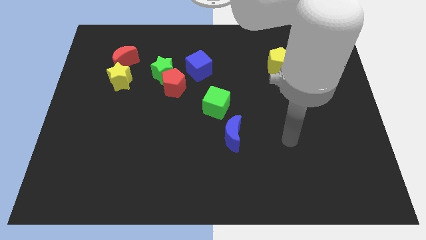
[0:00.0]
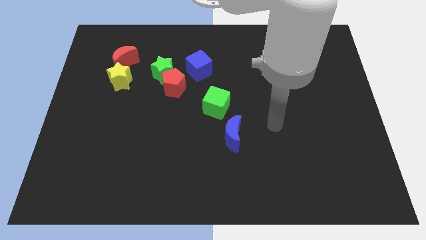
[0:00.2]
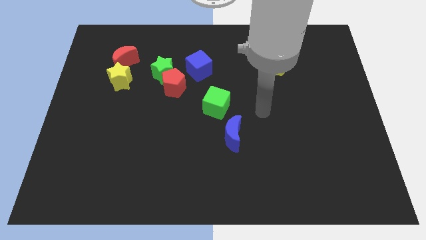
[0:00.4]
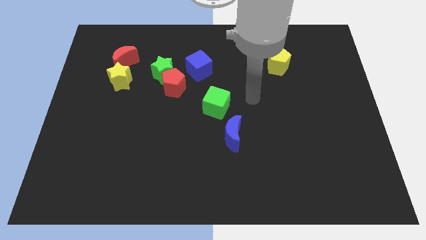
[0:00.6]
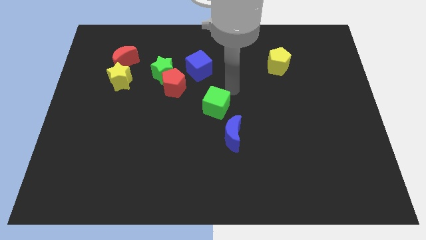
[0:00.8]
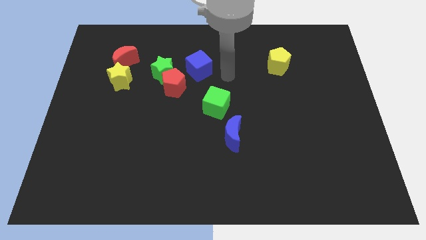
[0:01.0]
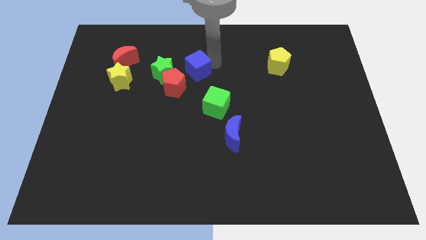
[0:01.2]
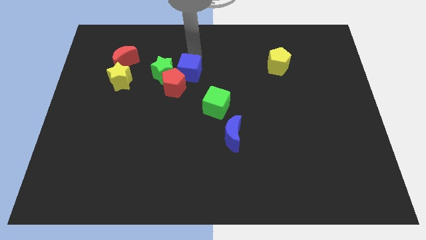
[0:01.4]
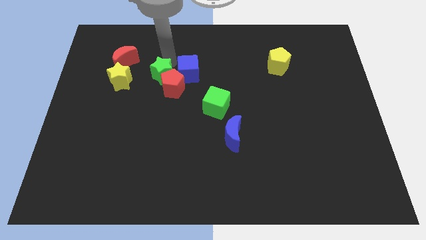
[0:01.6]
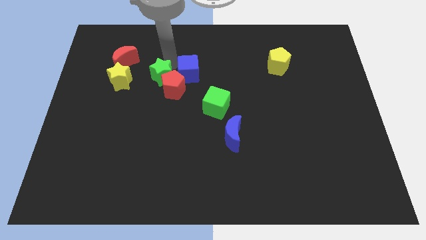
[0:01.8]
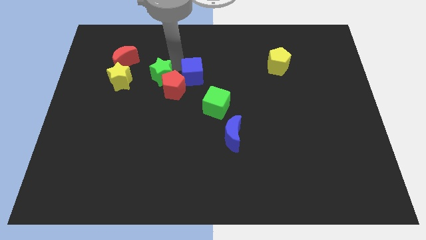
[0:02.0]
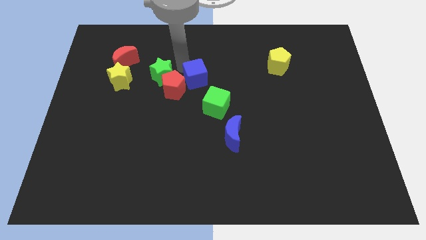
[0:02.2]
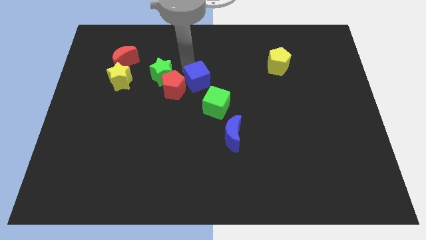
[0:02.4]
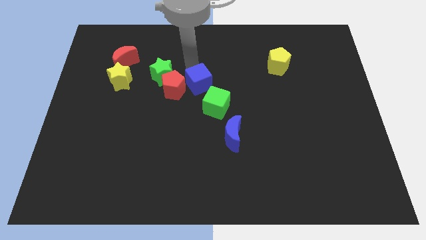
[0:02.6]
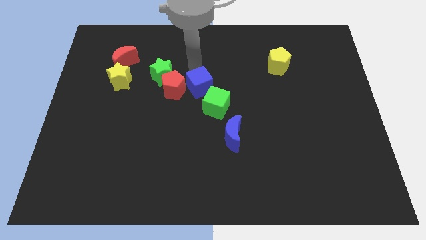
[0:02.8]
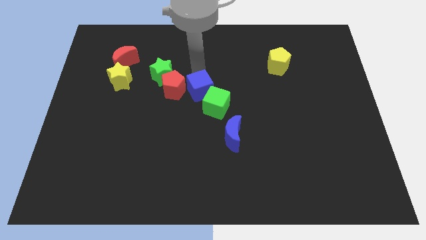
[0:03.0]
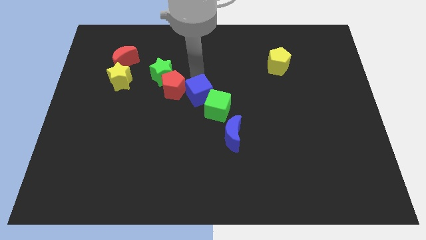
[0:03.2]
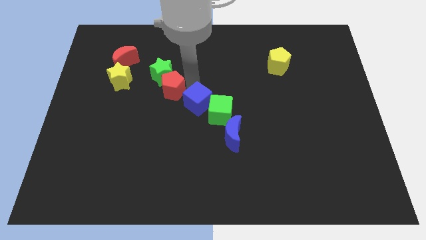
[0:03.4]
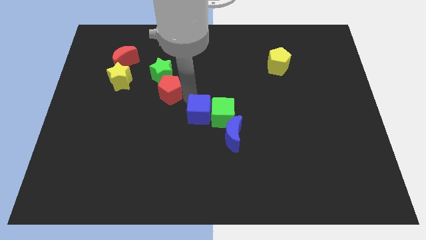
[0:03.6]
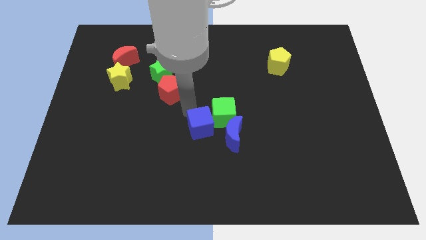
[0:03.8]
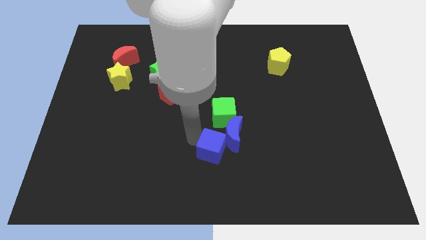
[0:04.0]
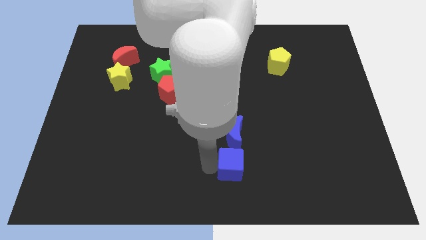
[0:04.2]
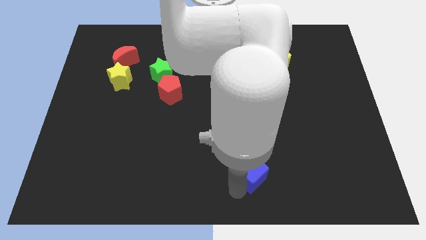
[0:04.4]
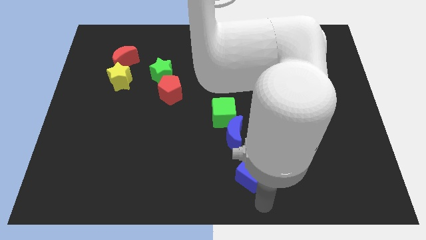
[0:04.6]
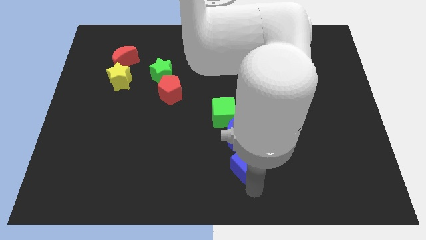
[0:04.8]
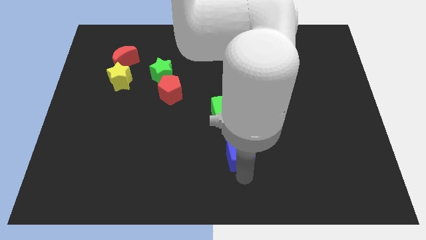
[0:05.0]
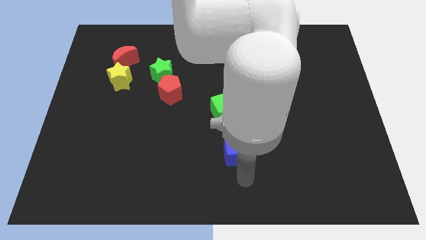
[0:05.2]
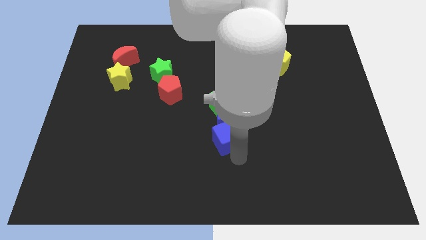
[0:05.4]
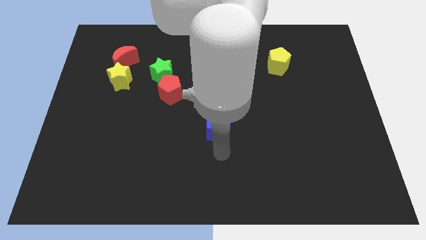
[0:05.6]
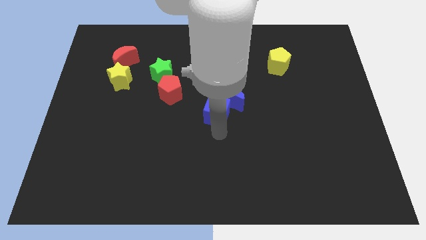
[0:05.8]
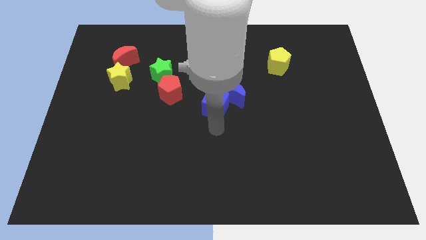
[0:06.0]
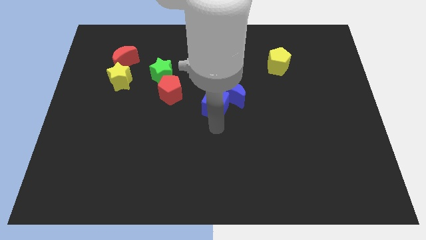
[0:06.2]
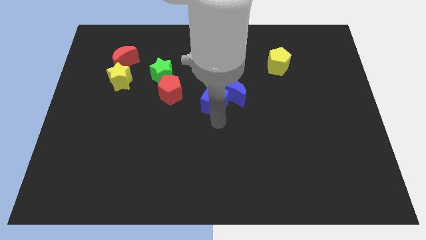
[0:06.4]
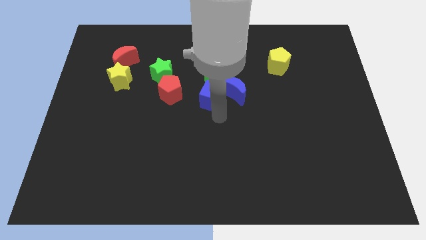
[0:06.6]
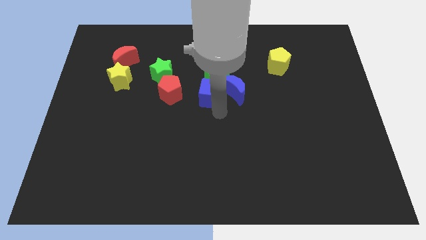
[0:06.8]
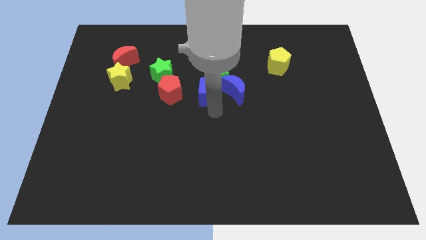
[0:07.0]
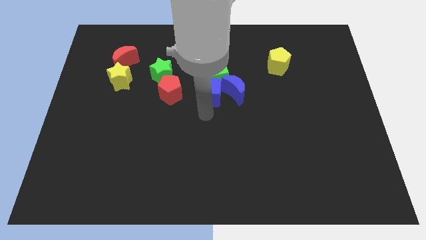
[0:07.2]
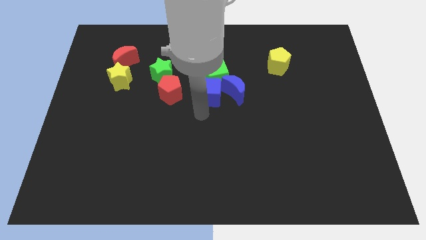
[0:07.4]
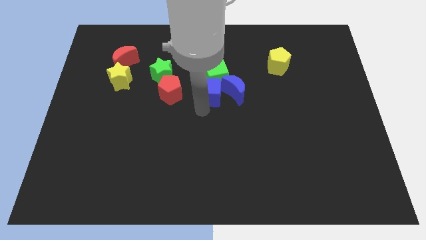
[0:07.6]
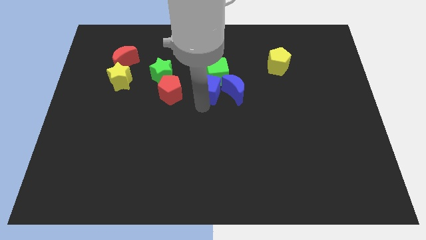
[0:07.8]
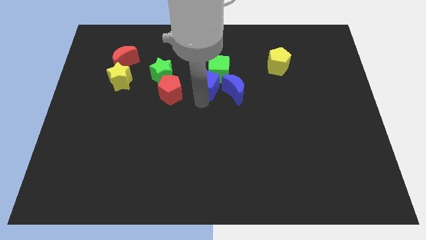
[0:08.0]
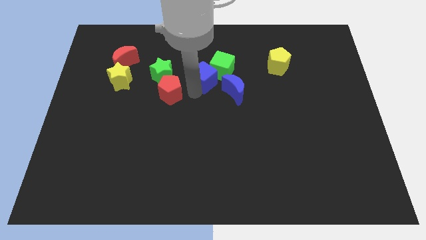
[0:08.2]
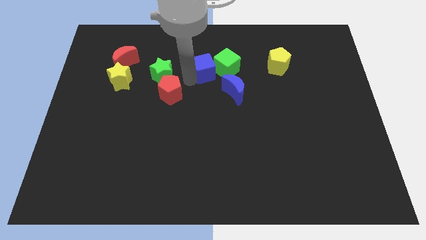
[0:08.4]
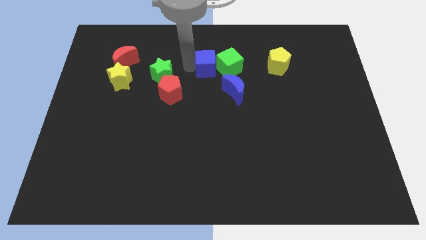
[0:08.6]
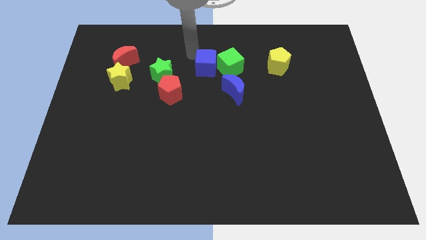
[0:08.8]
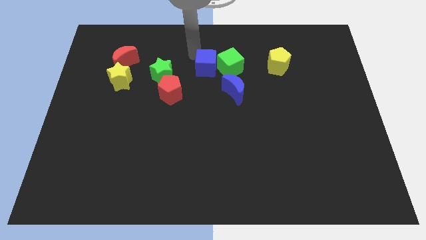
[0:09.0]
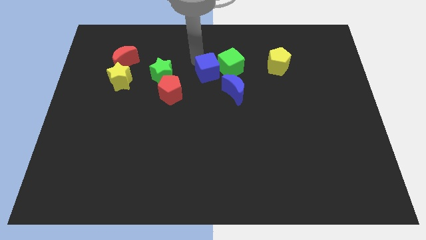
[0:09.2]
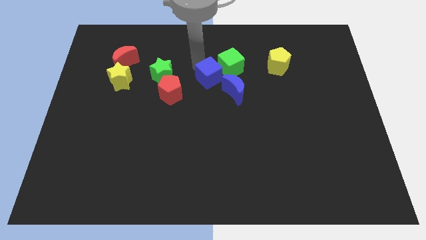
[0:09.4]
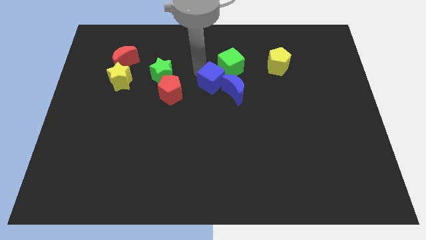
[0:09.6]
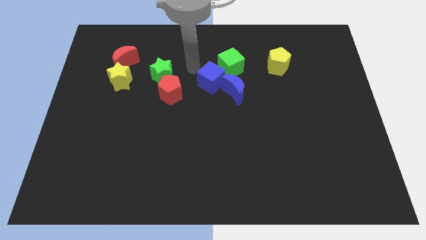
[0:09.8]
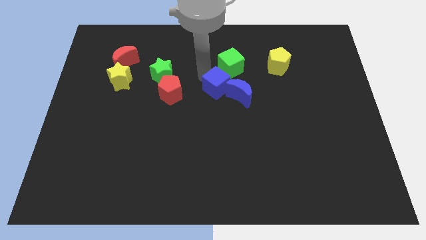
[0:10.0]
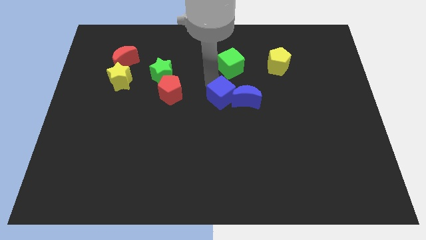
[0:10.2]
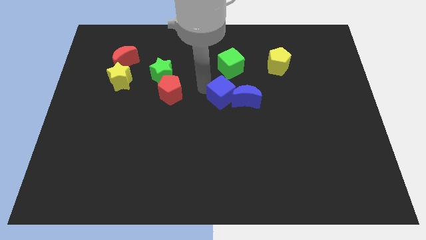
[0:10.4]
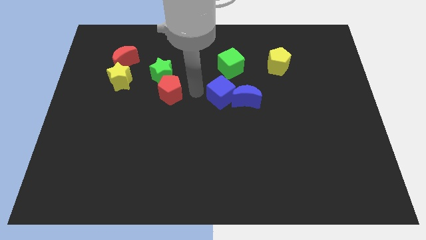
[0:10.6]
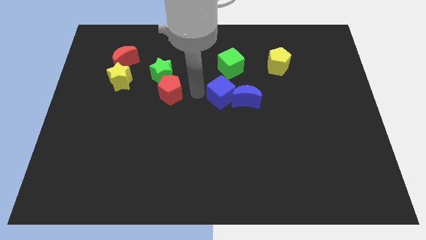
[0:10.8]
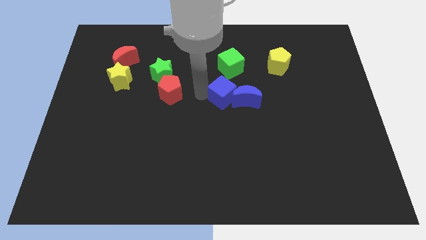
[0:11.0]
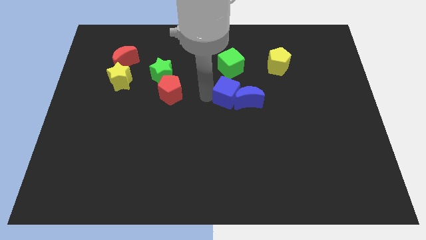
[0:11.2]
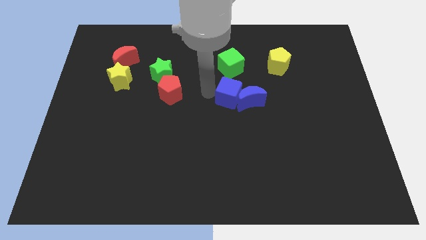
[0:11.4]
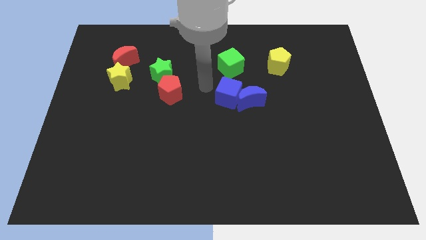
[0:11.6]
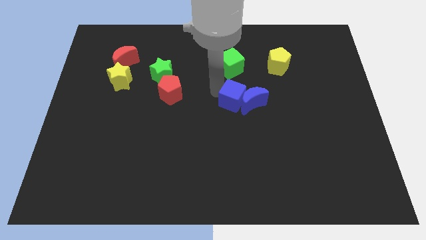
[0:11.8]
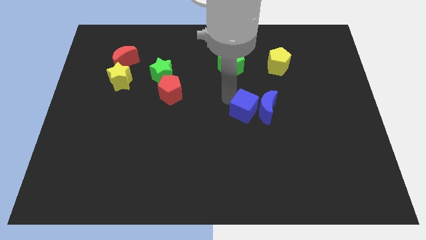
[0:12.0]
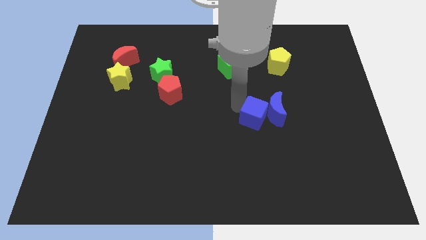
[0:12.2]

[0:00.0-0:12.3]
push the blue cube down and right

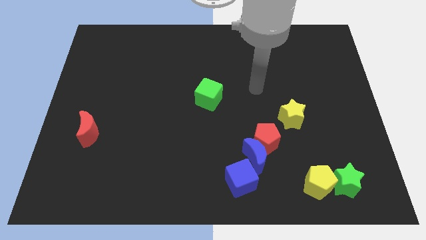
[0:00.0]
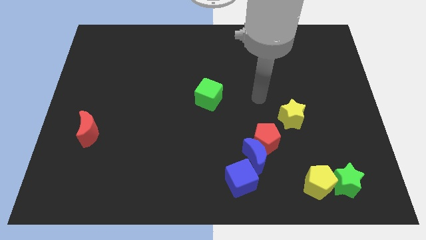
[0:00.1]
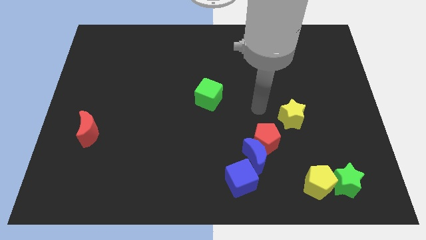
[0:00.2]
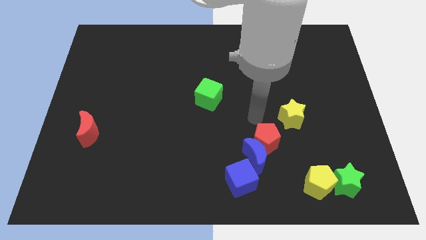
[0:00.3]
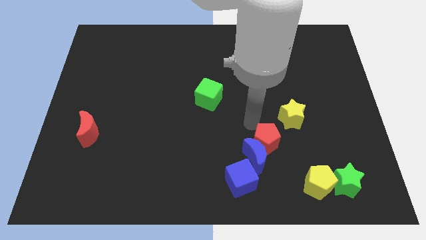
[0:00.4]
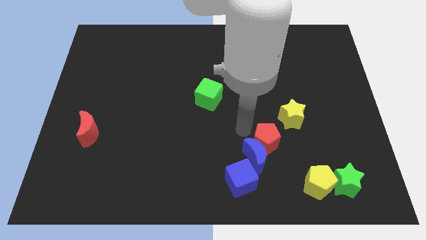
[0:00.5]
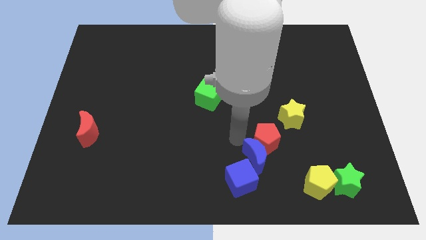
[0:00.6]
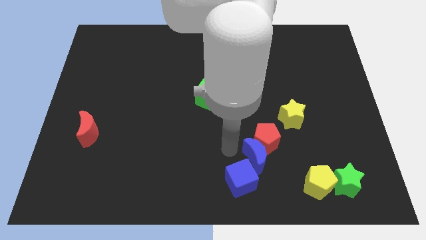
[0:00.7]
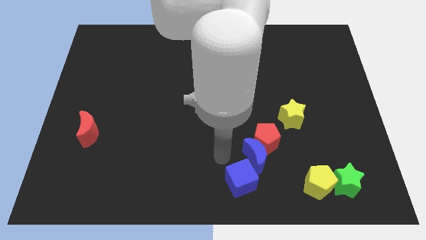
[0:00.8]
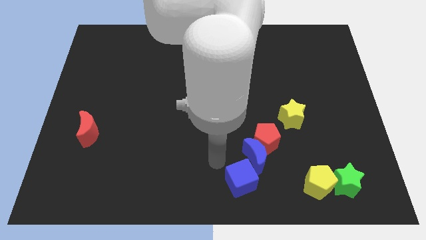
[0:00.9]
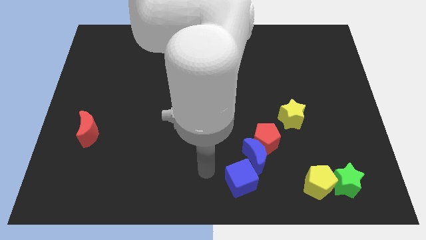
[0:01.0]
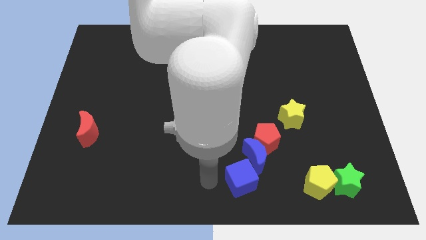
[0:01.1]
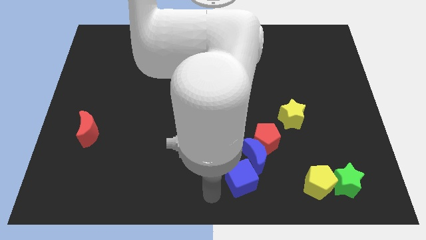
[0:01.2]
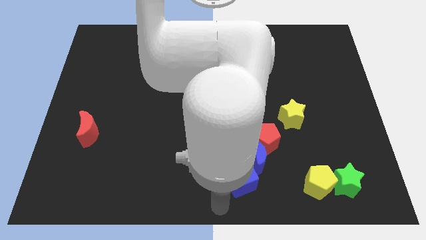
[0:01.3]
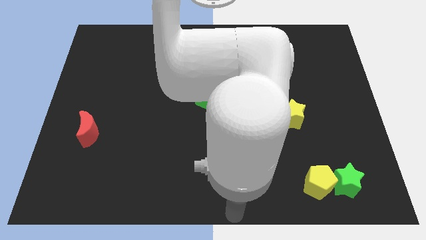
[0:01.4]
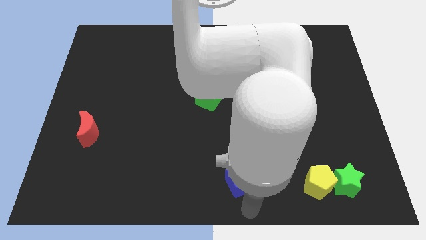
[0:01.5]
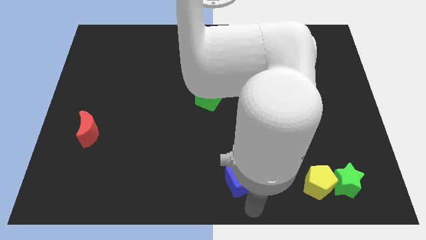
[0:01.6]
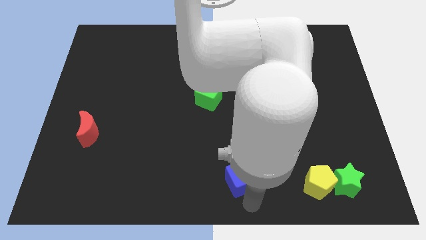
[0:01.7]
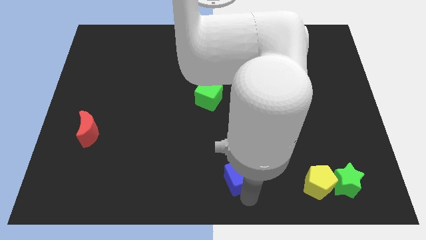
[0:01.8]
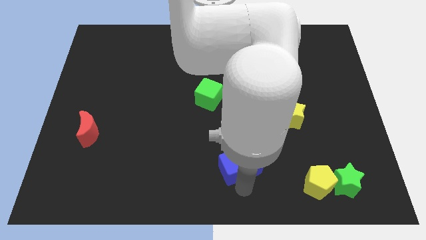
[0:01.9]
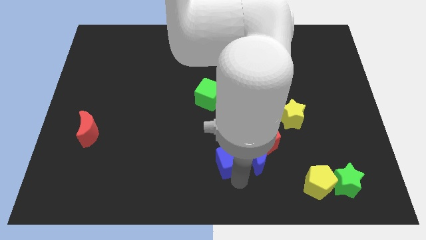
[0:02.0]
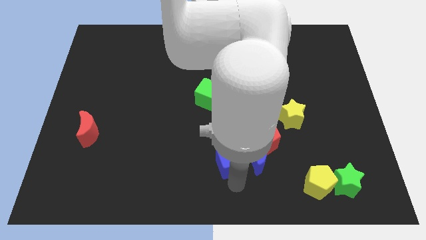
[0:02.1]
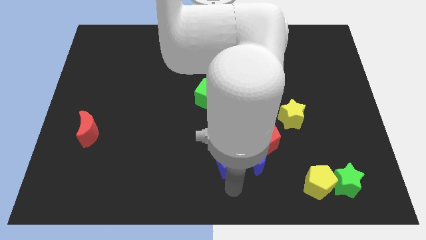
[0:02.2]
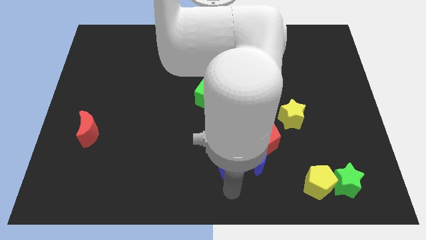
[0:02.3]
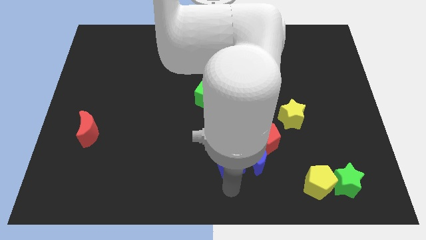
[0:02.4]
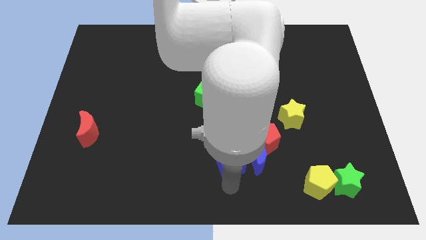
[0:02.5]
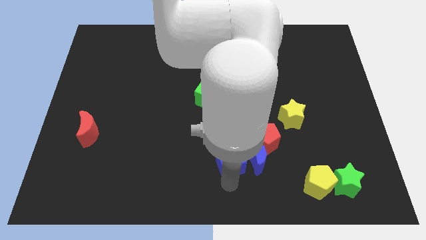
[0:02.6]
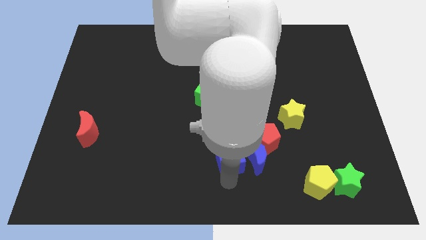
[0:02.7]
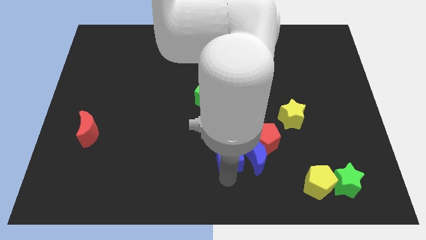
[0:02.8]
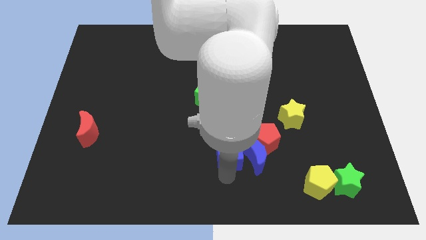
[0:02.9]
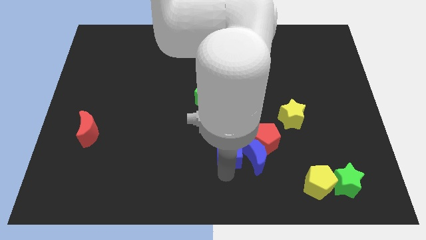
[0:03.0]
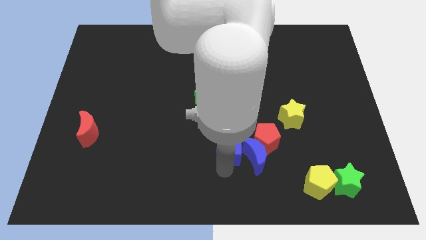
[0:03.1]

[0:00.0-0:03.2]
push the blue cube a little bit up
